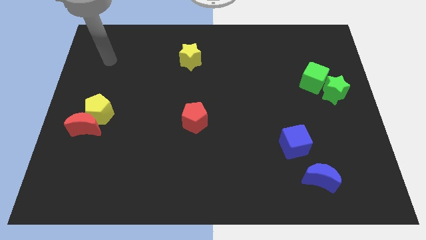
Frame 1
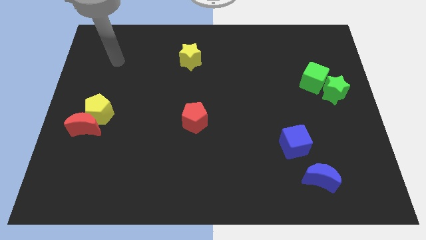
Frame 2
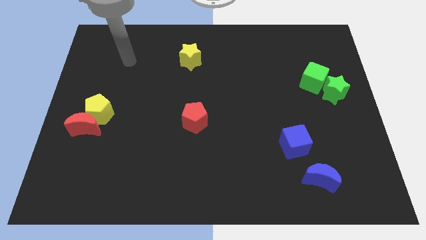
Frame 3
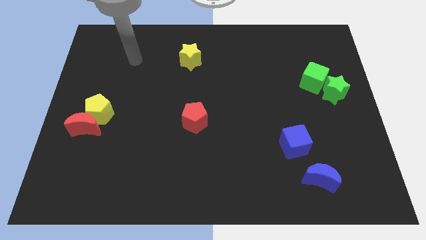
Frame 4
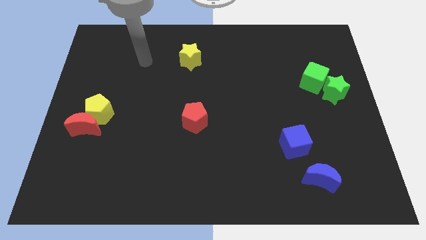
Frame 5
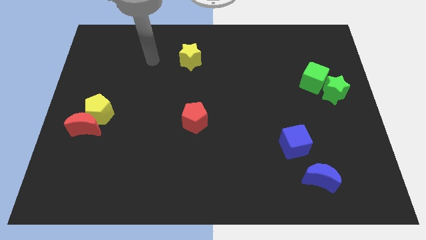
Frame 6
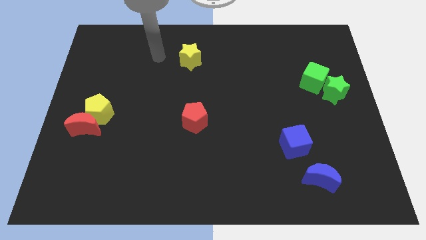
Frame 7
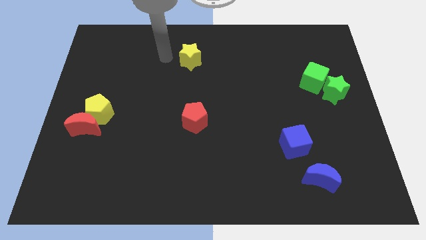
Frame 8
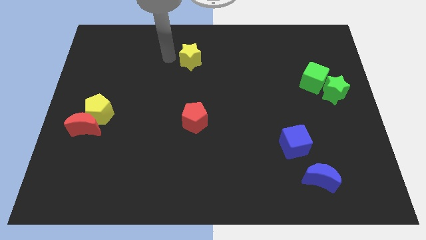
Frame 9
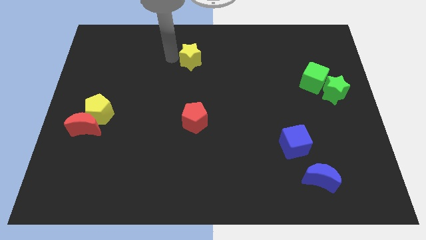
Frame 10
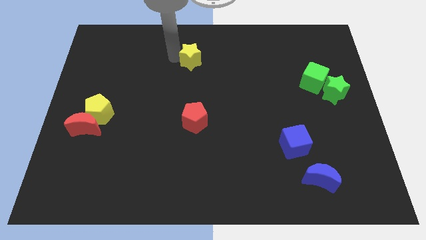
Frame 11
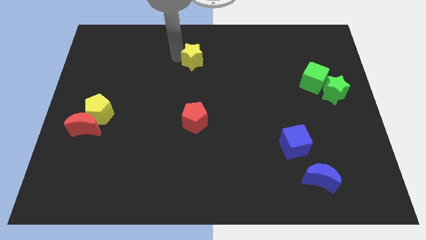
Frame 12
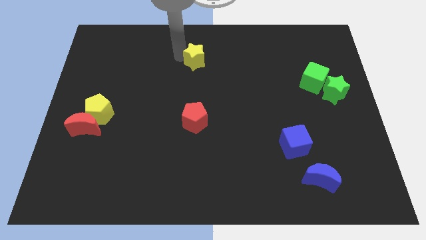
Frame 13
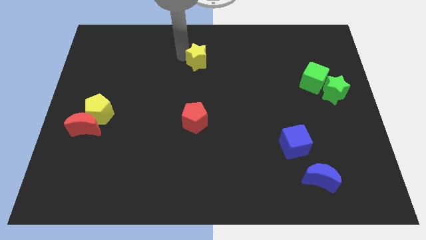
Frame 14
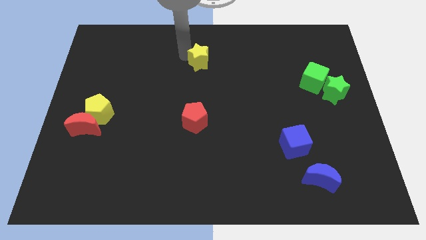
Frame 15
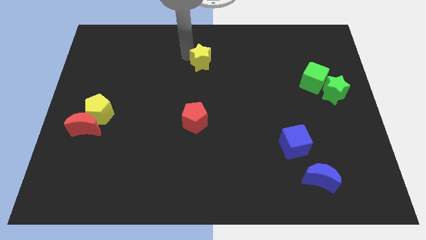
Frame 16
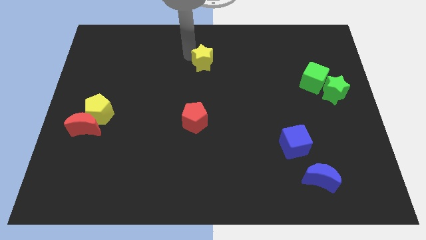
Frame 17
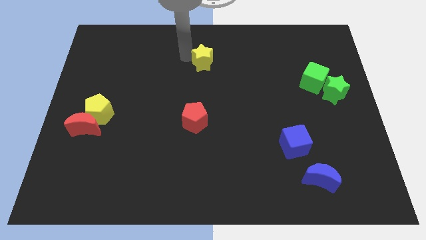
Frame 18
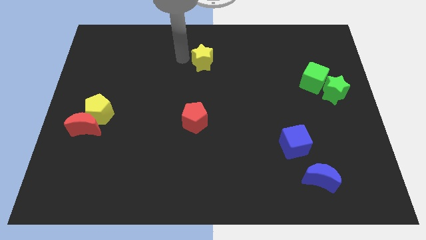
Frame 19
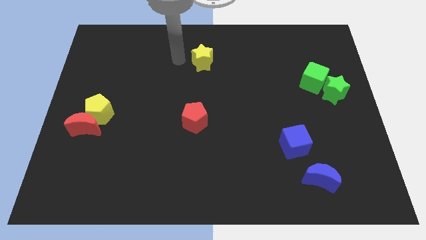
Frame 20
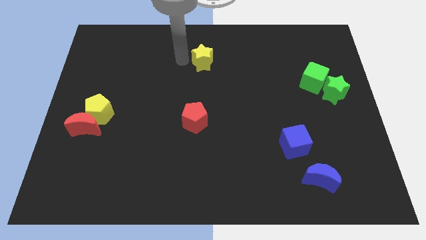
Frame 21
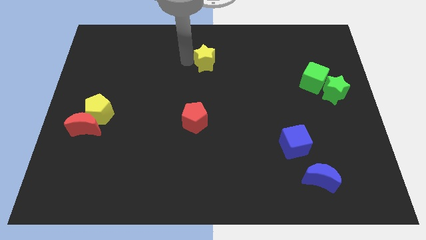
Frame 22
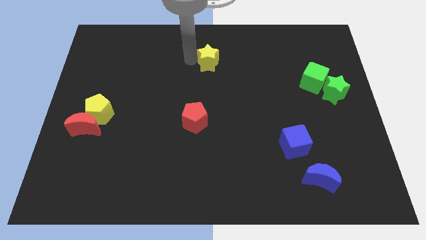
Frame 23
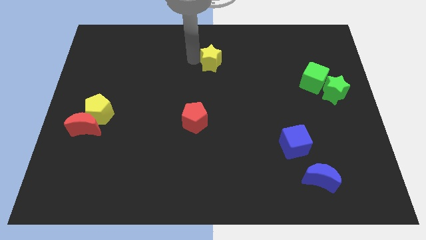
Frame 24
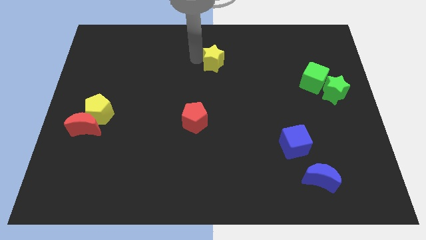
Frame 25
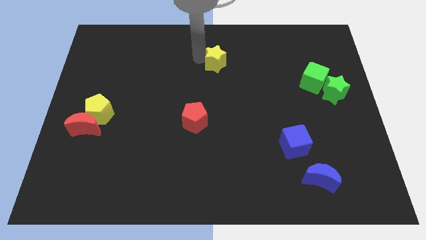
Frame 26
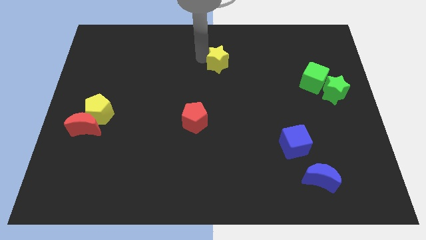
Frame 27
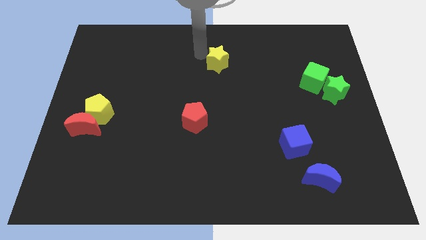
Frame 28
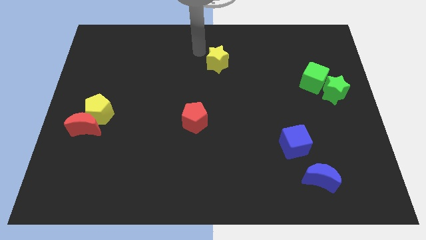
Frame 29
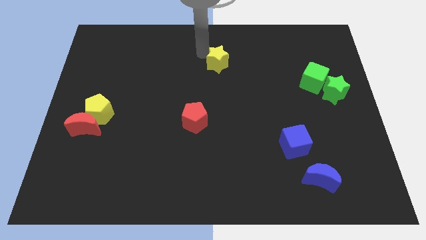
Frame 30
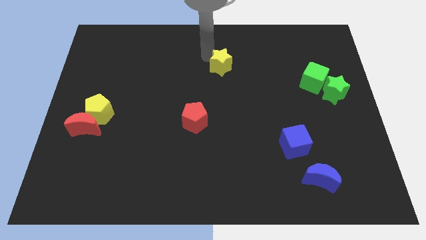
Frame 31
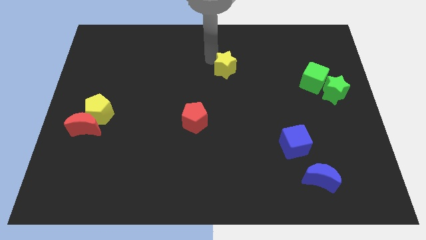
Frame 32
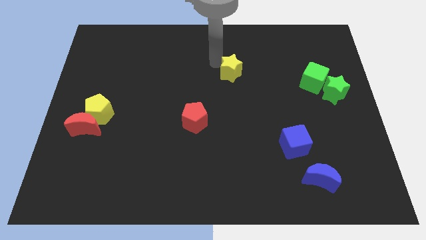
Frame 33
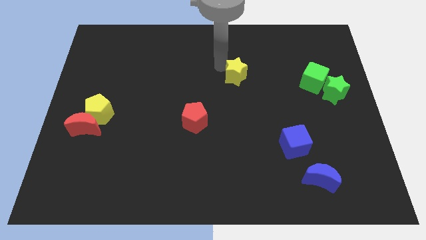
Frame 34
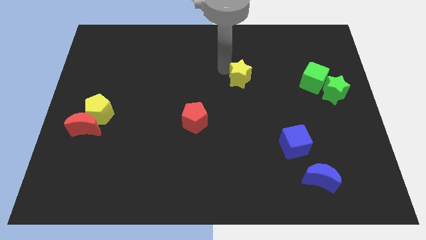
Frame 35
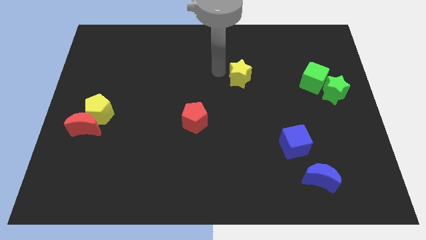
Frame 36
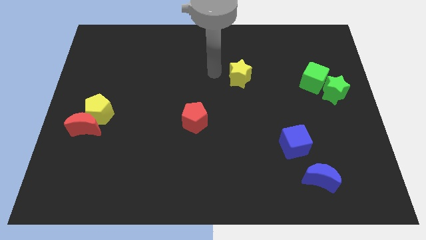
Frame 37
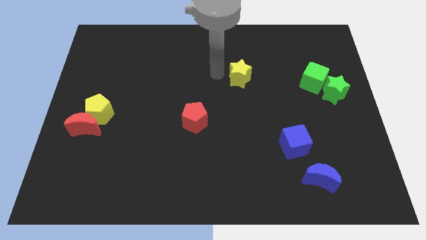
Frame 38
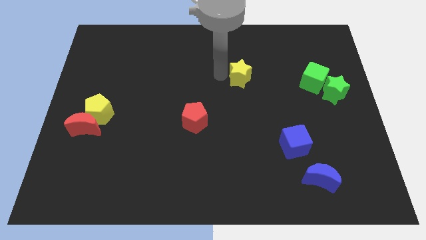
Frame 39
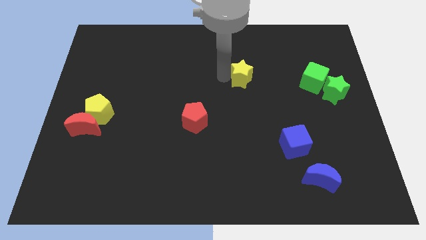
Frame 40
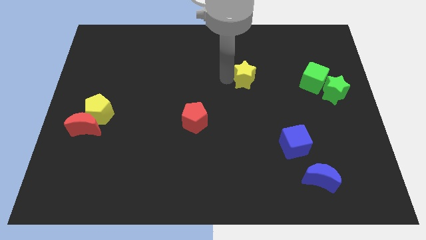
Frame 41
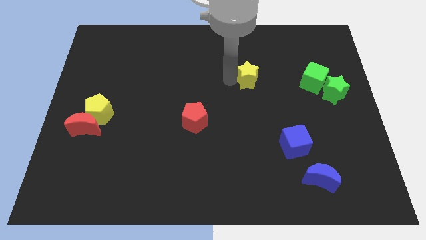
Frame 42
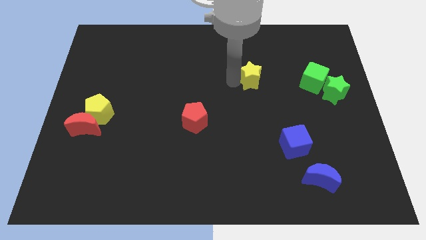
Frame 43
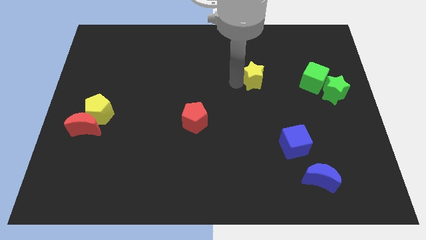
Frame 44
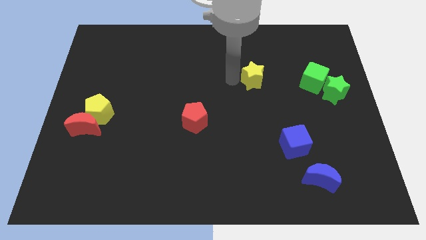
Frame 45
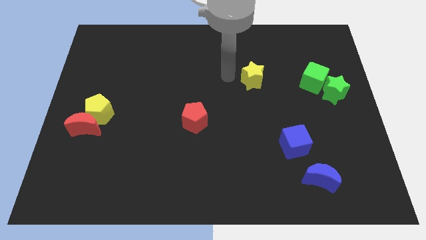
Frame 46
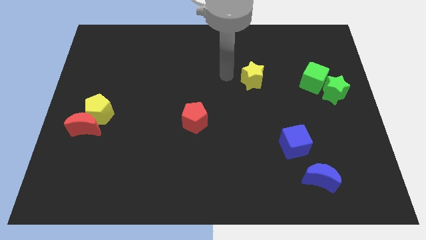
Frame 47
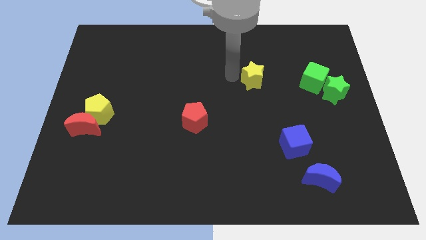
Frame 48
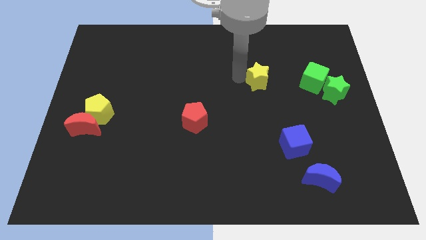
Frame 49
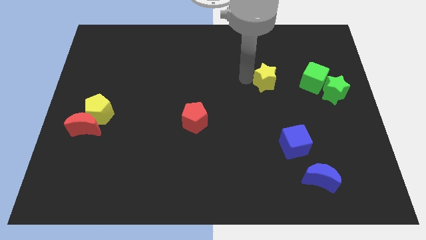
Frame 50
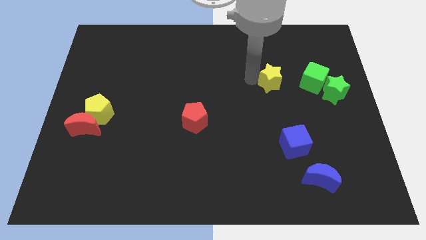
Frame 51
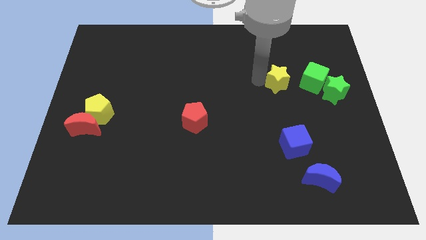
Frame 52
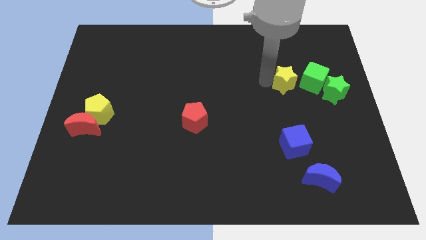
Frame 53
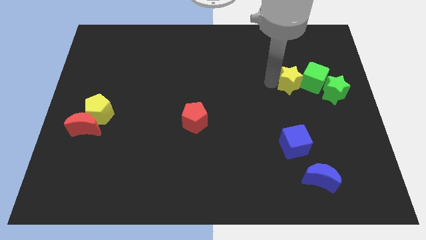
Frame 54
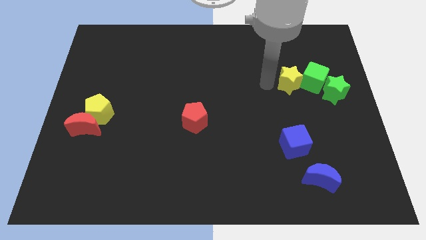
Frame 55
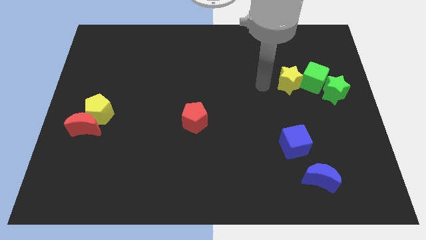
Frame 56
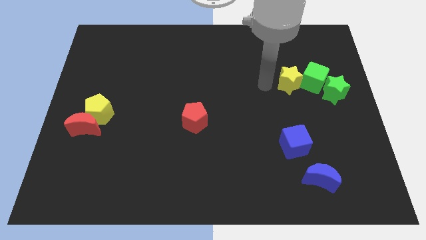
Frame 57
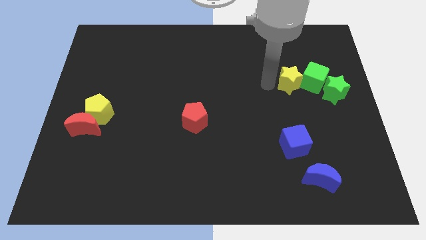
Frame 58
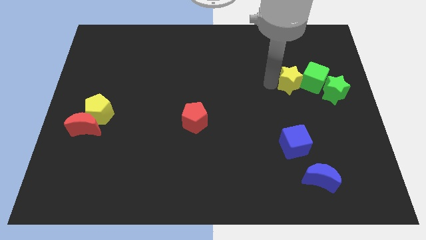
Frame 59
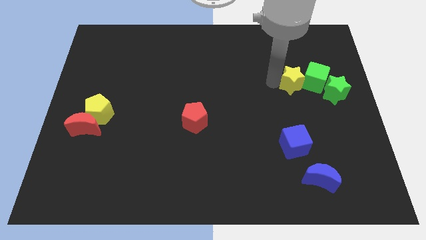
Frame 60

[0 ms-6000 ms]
push the yellow star towards the green cube

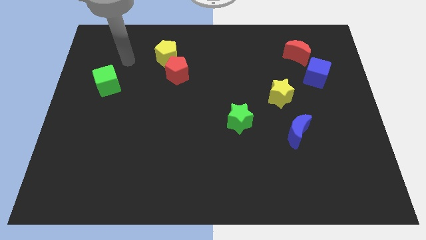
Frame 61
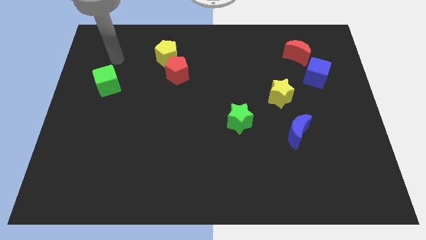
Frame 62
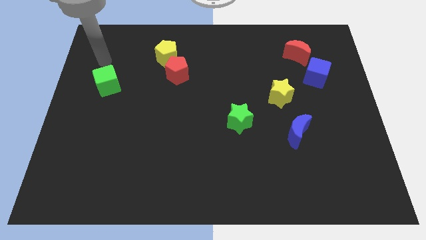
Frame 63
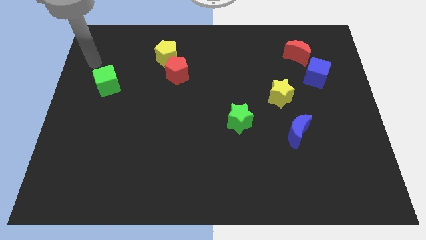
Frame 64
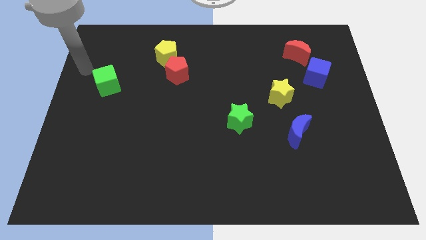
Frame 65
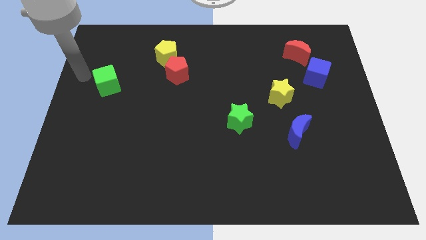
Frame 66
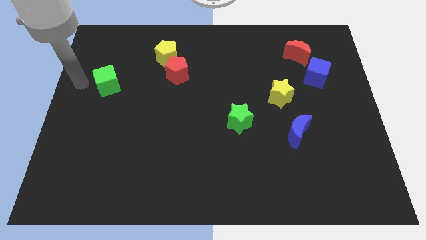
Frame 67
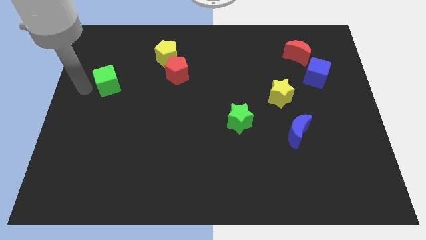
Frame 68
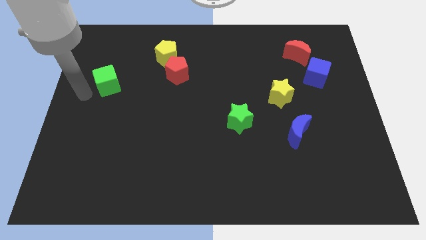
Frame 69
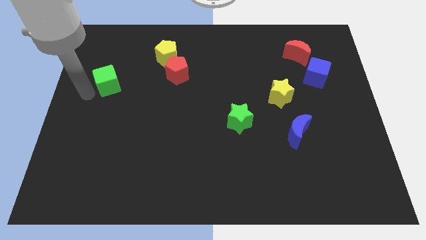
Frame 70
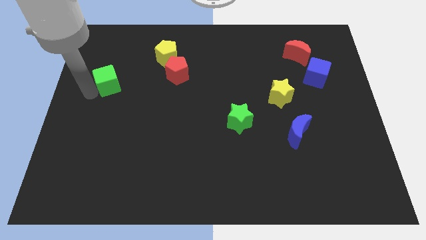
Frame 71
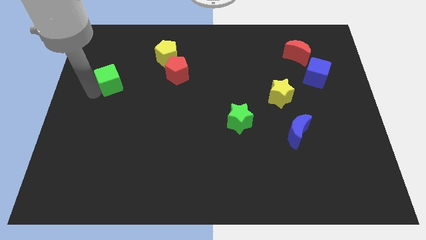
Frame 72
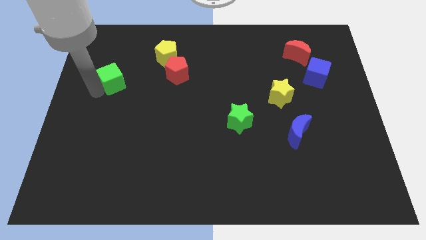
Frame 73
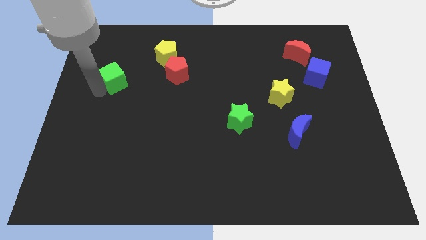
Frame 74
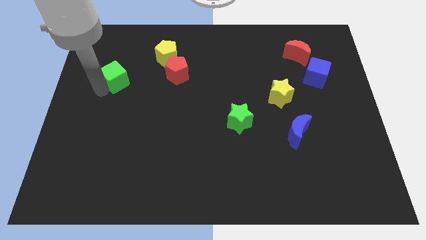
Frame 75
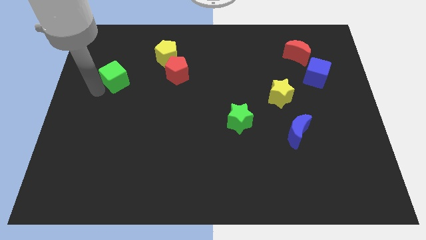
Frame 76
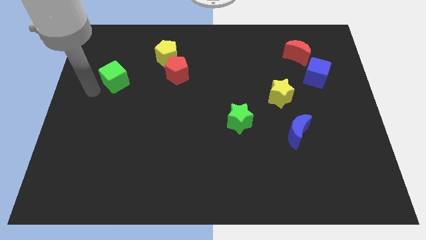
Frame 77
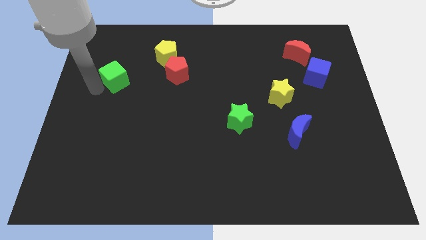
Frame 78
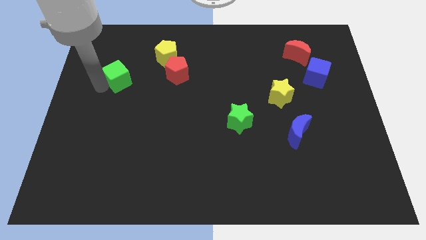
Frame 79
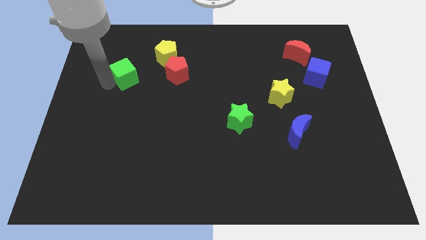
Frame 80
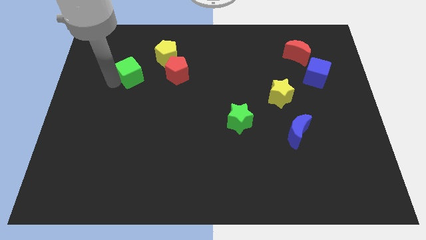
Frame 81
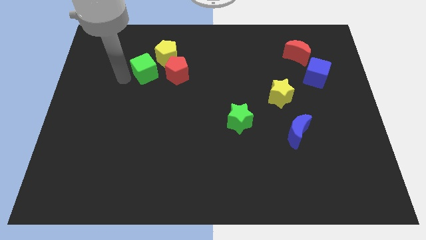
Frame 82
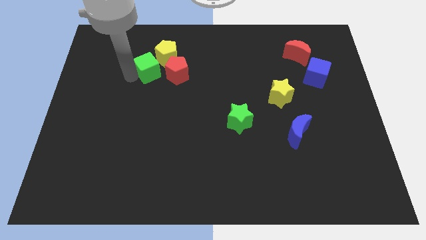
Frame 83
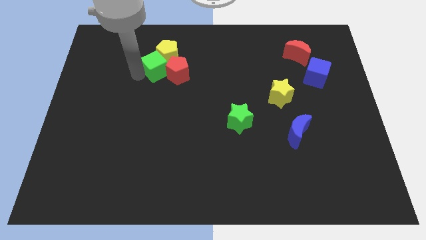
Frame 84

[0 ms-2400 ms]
move the green cube close to the yellow pentagon
